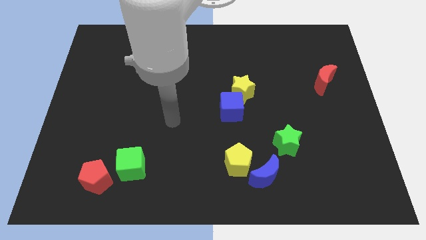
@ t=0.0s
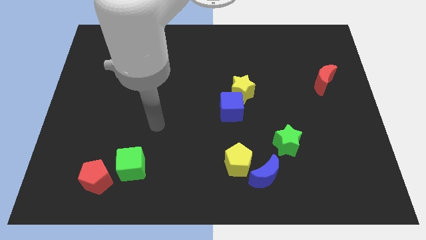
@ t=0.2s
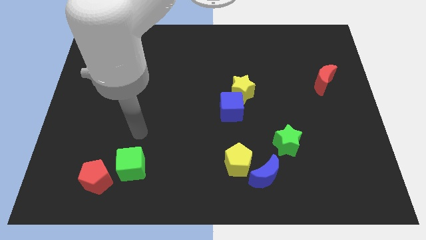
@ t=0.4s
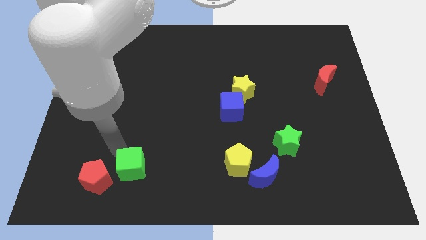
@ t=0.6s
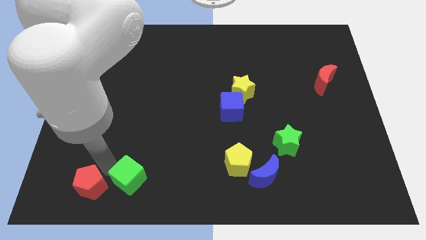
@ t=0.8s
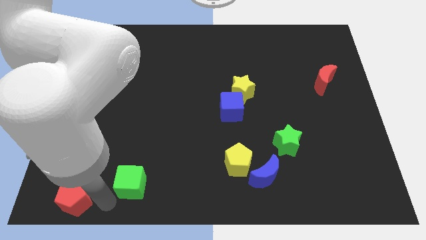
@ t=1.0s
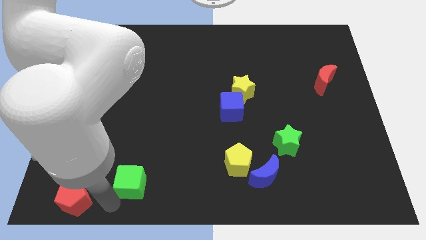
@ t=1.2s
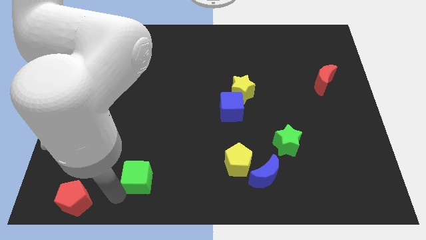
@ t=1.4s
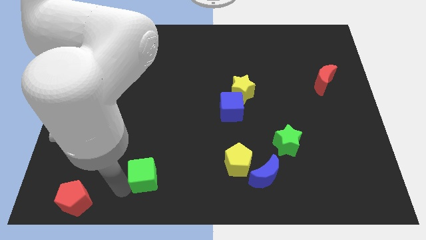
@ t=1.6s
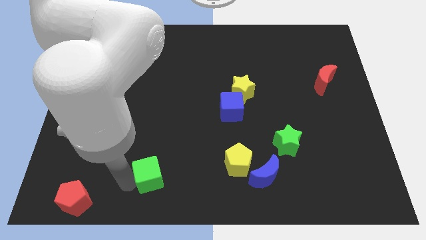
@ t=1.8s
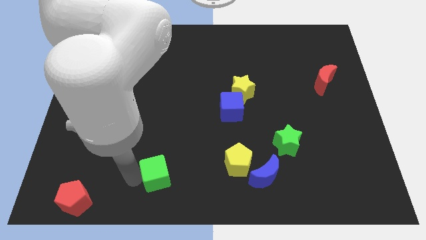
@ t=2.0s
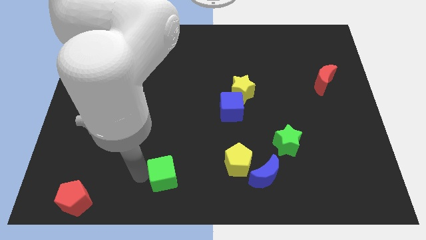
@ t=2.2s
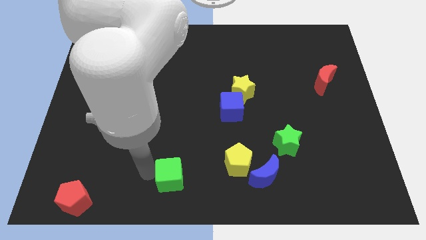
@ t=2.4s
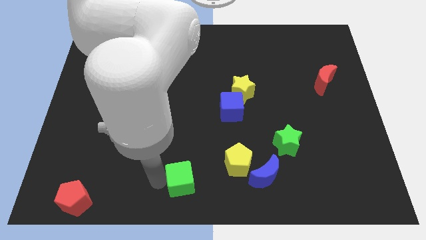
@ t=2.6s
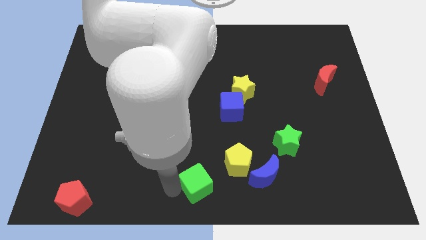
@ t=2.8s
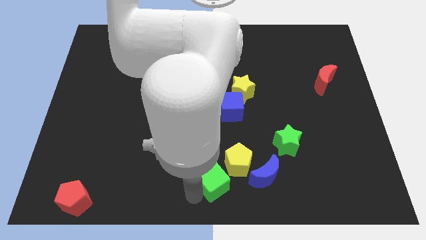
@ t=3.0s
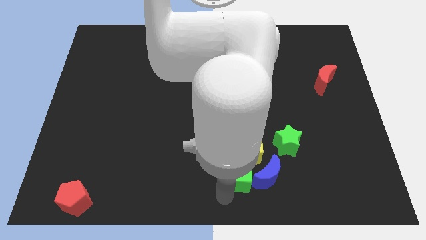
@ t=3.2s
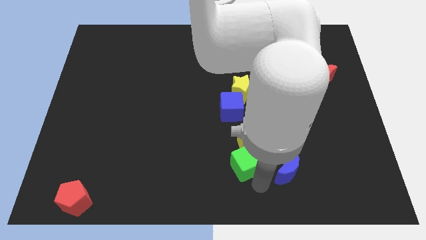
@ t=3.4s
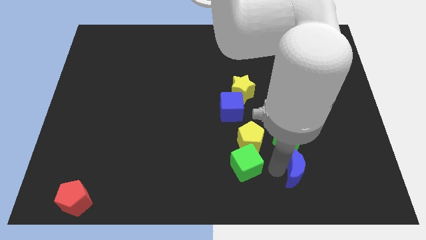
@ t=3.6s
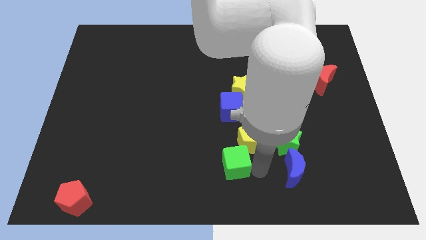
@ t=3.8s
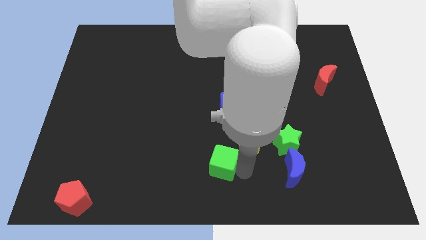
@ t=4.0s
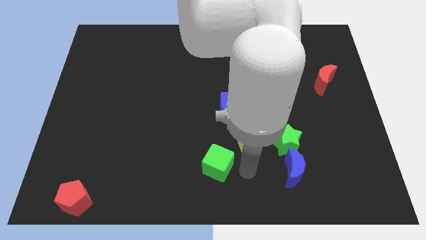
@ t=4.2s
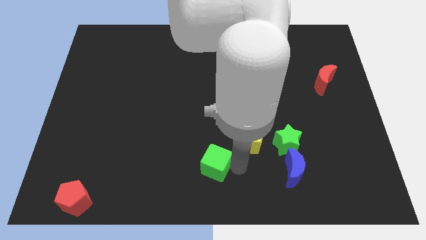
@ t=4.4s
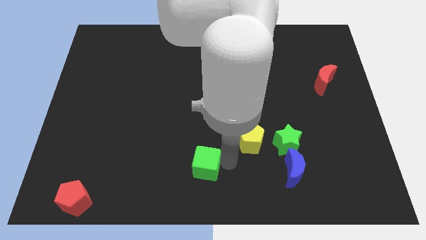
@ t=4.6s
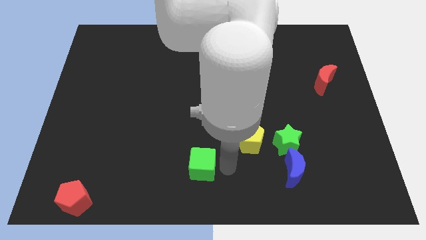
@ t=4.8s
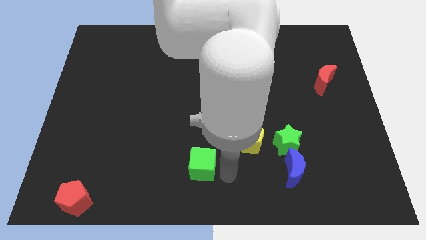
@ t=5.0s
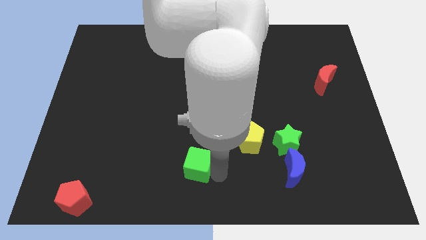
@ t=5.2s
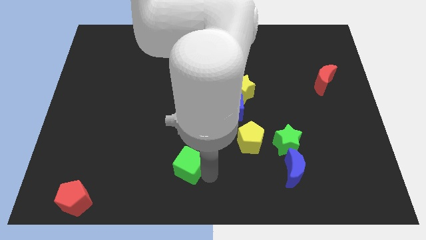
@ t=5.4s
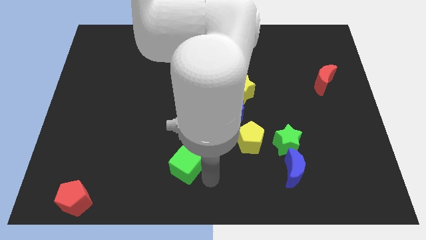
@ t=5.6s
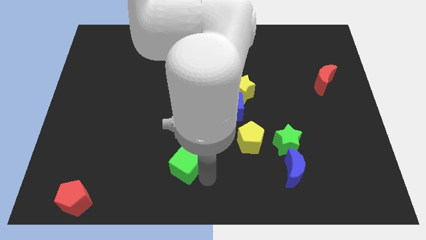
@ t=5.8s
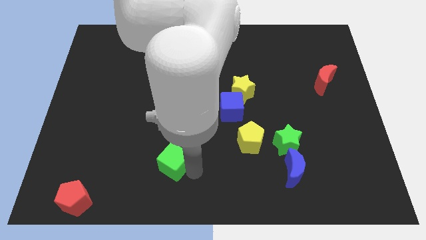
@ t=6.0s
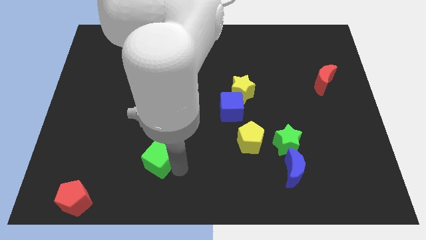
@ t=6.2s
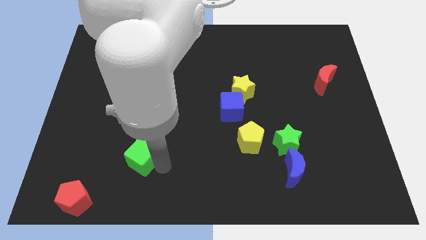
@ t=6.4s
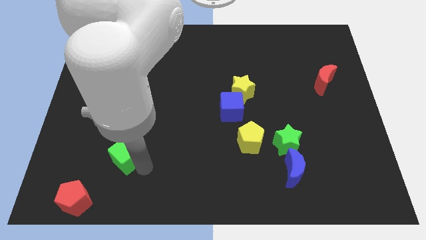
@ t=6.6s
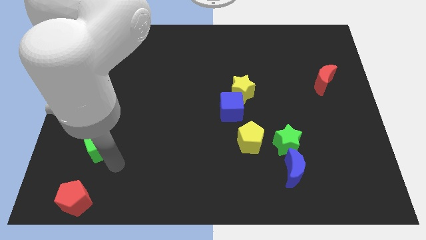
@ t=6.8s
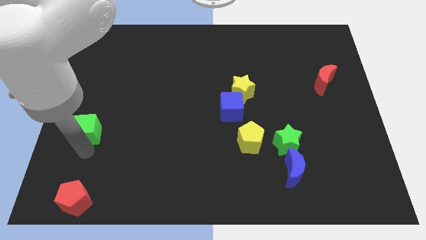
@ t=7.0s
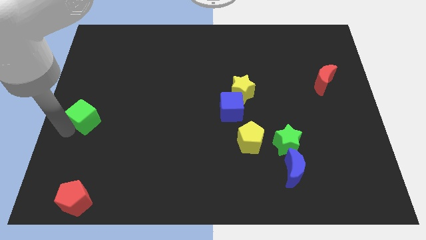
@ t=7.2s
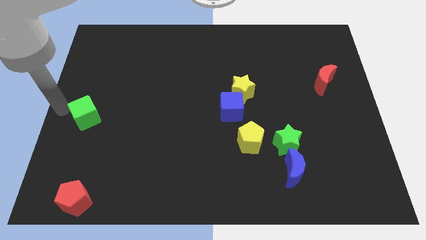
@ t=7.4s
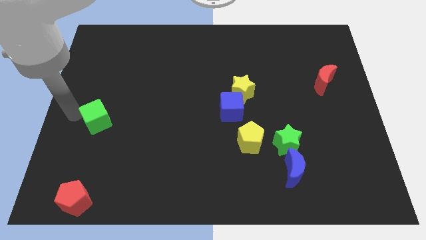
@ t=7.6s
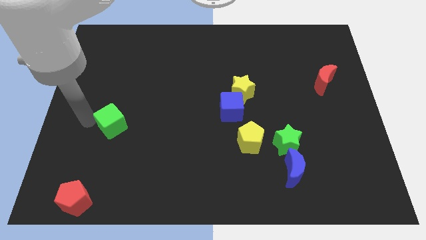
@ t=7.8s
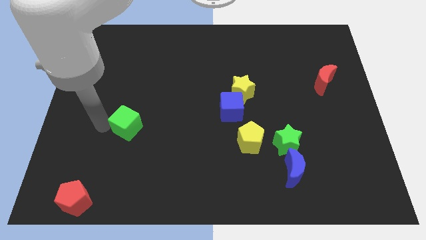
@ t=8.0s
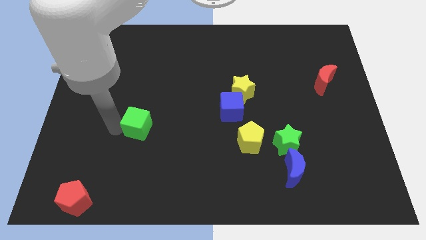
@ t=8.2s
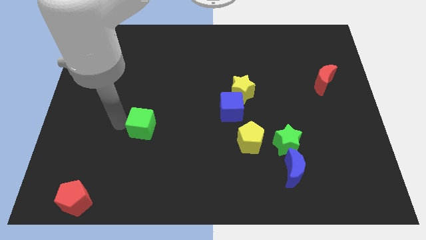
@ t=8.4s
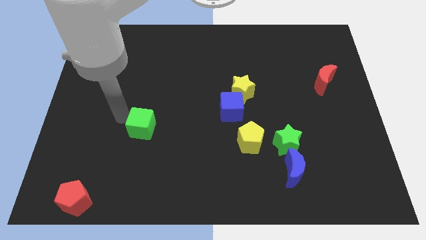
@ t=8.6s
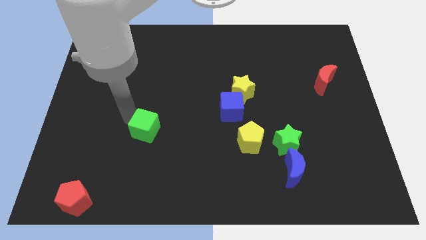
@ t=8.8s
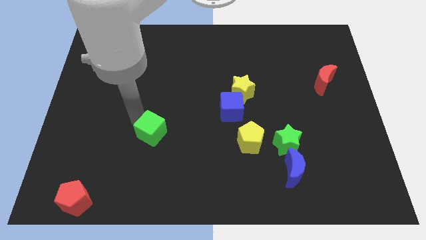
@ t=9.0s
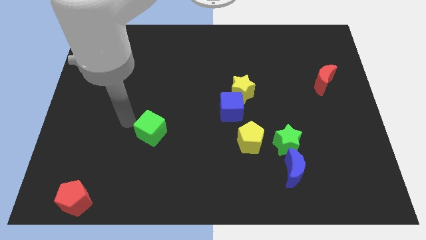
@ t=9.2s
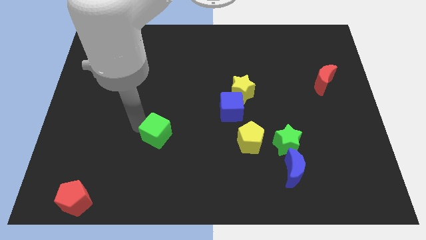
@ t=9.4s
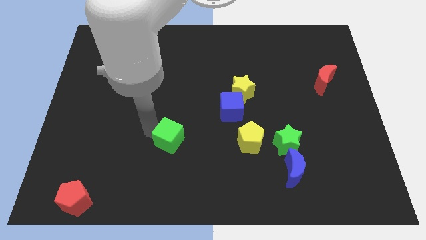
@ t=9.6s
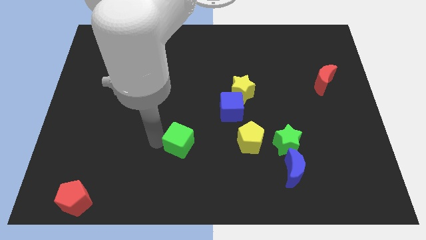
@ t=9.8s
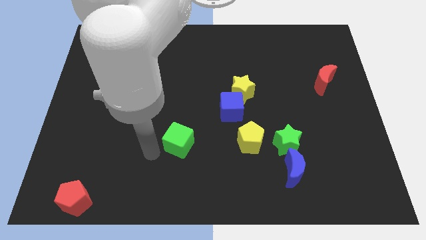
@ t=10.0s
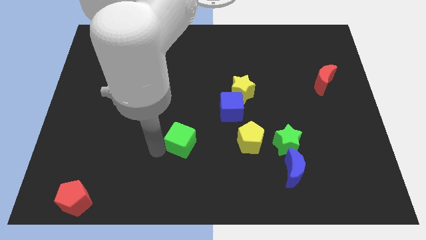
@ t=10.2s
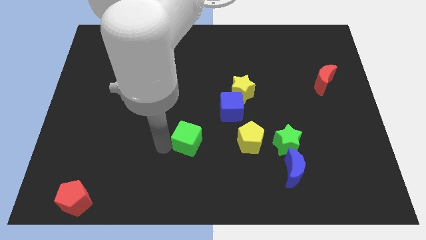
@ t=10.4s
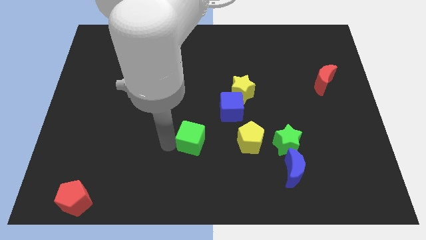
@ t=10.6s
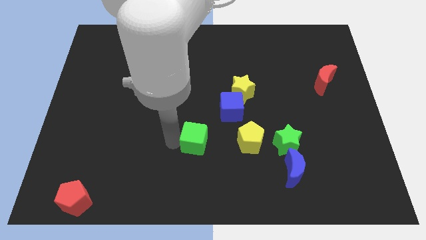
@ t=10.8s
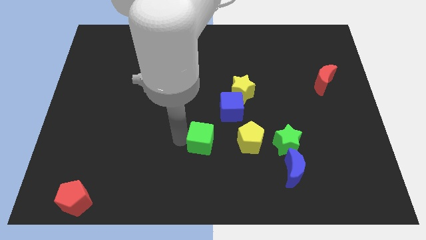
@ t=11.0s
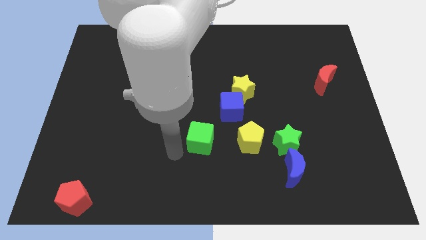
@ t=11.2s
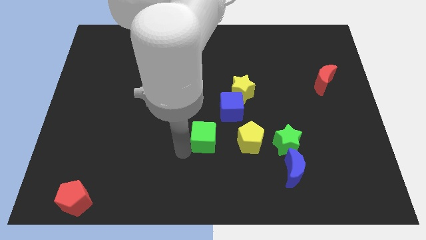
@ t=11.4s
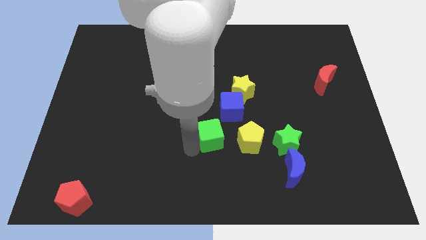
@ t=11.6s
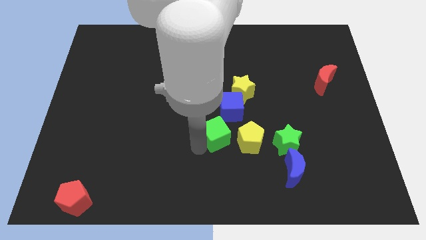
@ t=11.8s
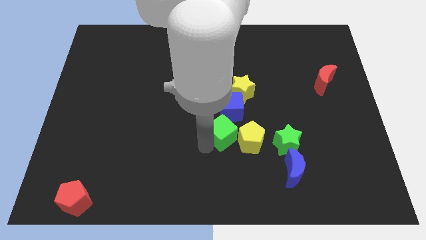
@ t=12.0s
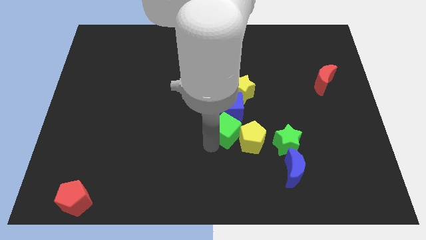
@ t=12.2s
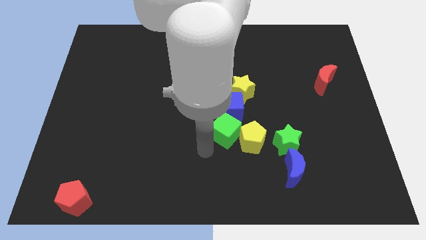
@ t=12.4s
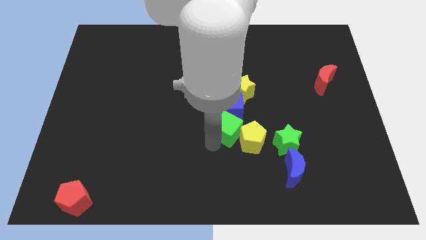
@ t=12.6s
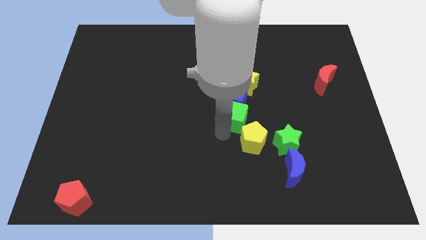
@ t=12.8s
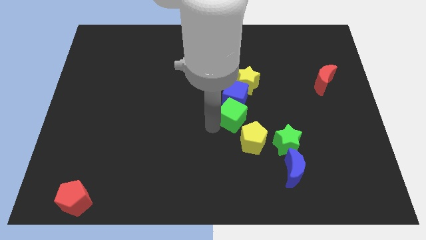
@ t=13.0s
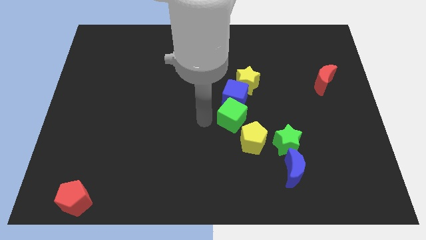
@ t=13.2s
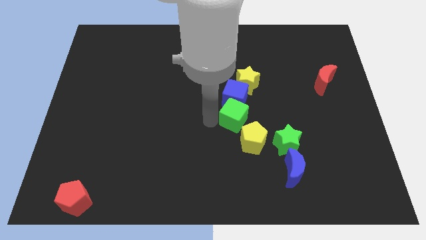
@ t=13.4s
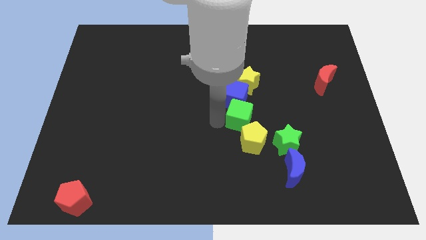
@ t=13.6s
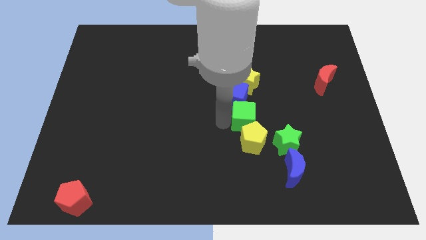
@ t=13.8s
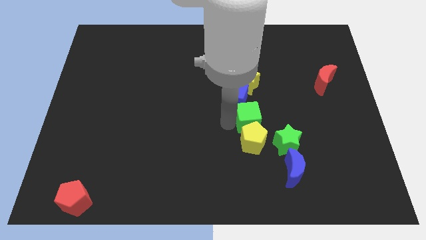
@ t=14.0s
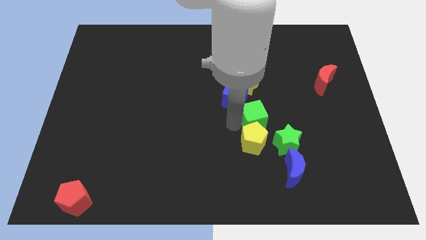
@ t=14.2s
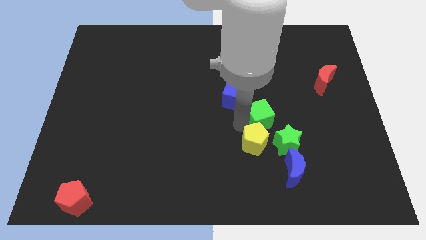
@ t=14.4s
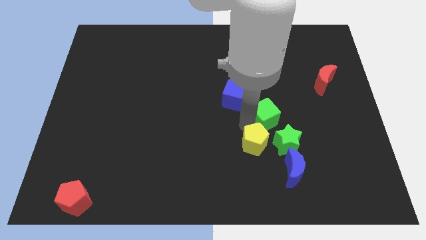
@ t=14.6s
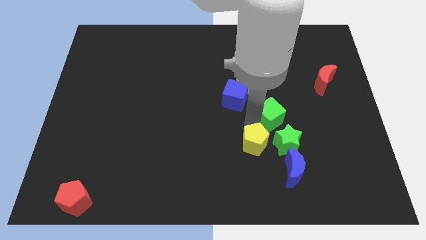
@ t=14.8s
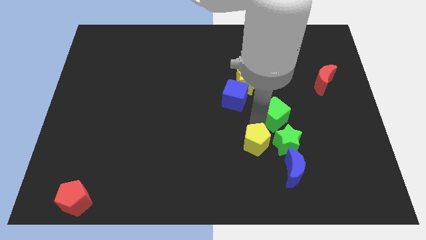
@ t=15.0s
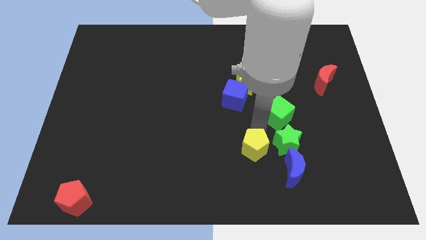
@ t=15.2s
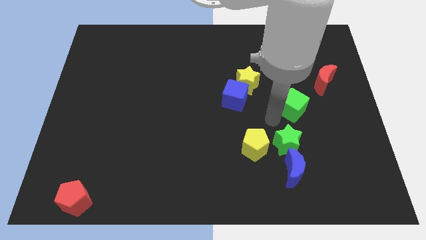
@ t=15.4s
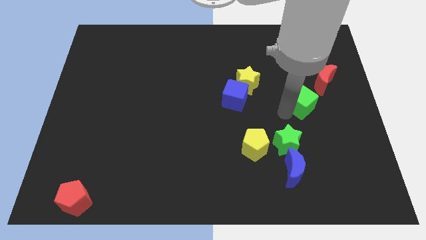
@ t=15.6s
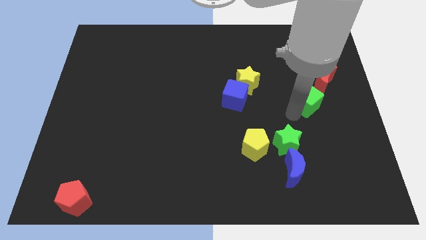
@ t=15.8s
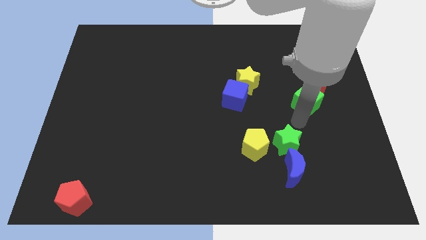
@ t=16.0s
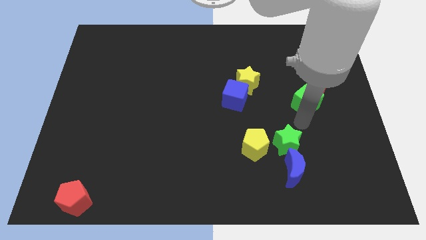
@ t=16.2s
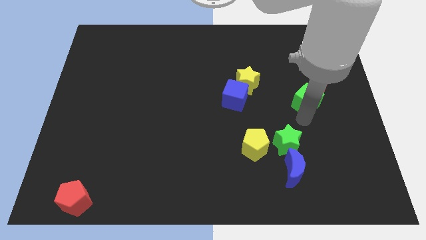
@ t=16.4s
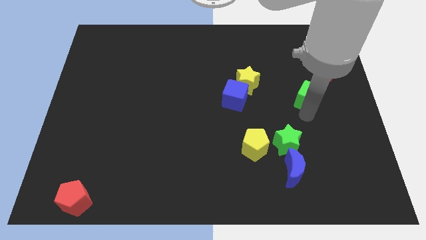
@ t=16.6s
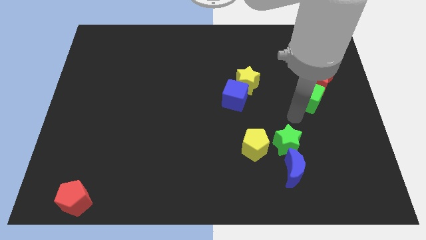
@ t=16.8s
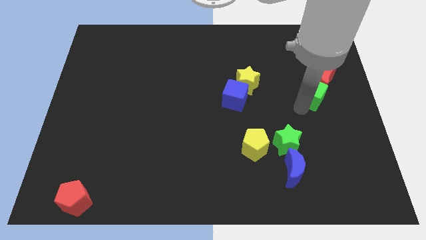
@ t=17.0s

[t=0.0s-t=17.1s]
move the green cube next to the red moon
